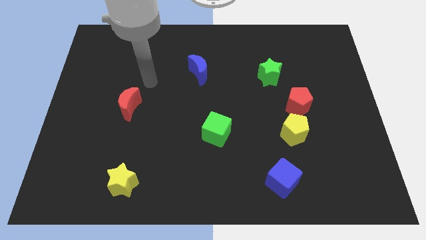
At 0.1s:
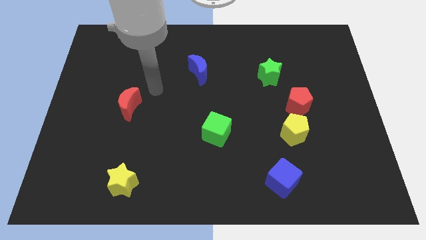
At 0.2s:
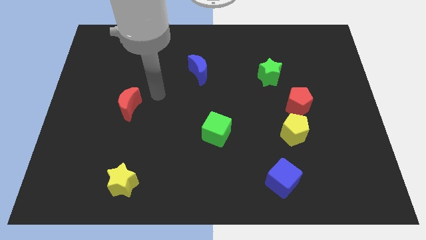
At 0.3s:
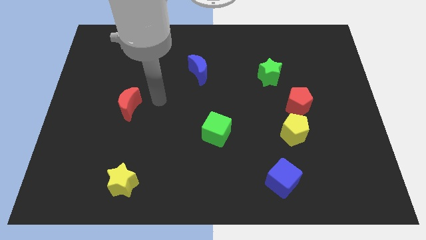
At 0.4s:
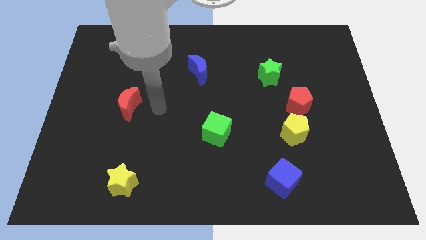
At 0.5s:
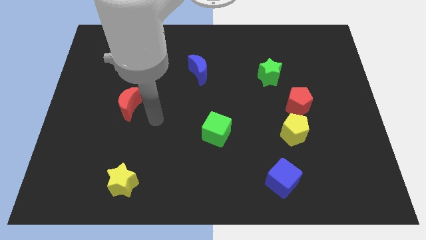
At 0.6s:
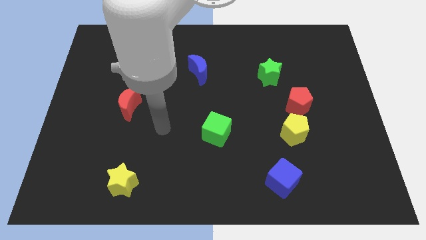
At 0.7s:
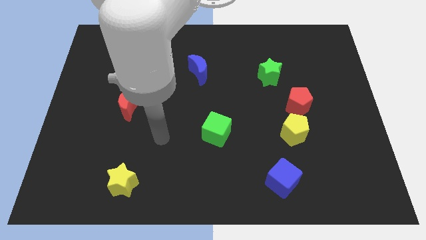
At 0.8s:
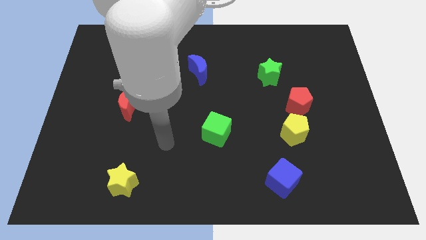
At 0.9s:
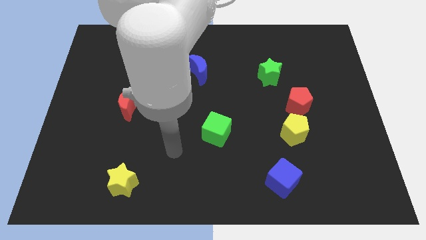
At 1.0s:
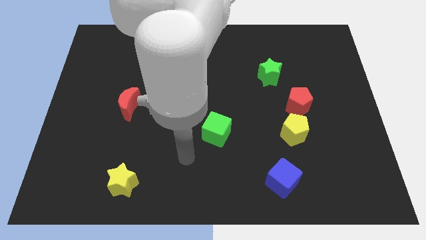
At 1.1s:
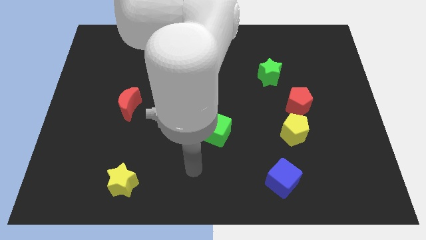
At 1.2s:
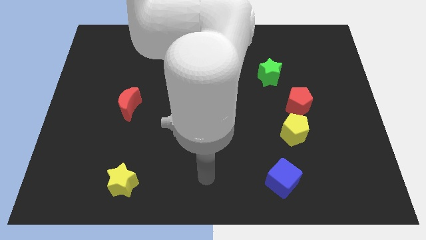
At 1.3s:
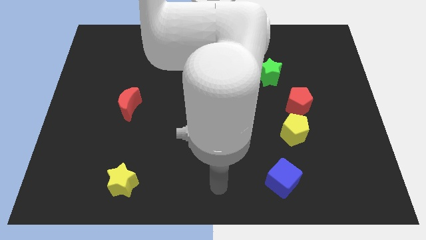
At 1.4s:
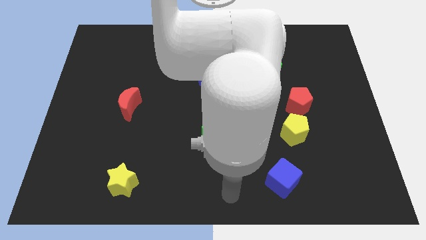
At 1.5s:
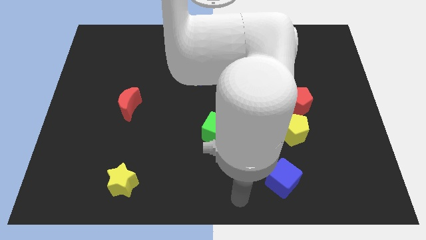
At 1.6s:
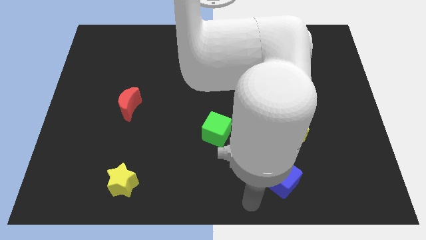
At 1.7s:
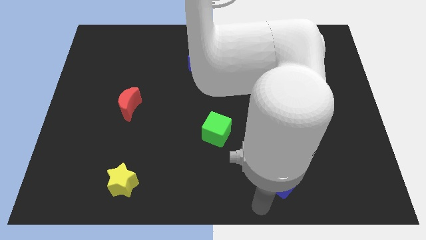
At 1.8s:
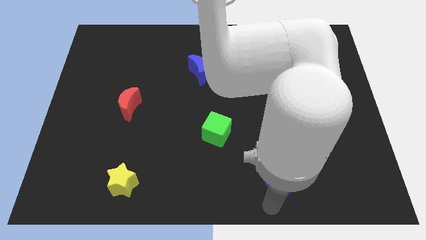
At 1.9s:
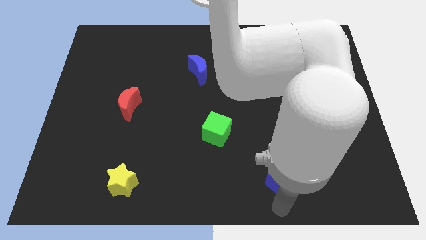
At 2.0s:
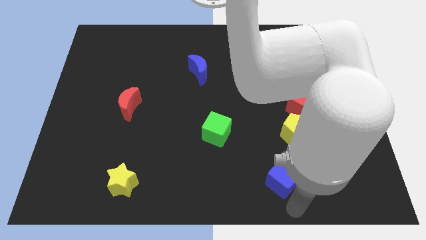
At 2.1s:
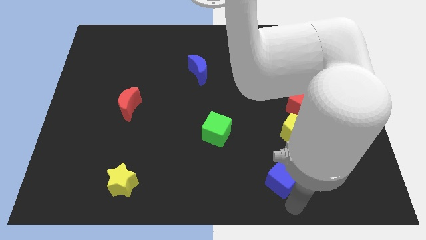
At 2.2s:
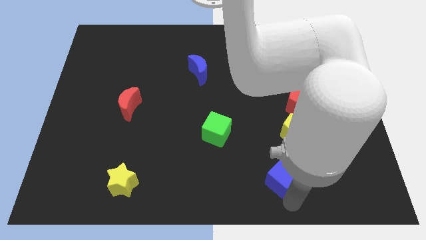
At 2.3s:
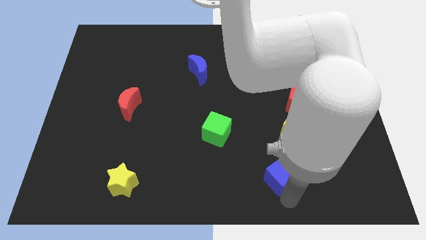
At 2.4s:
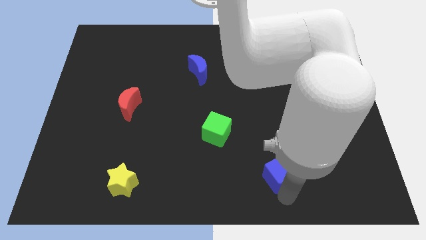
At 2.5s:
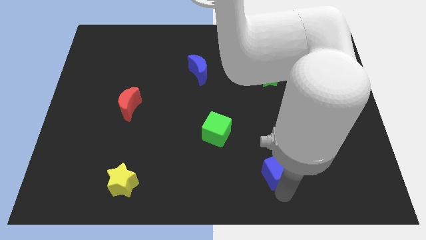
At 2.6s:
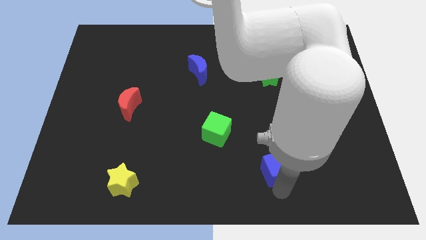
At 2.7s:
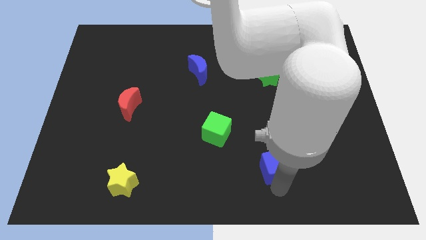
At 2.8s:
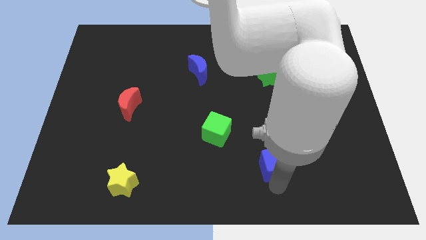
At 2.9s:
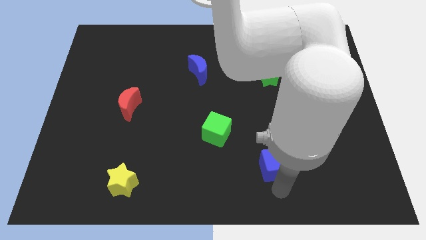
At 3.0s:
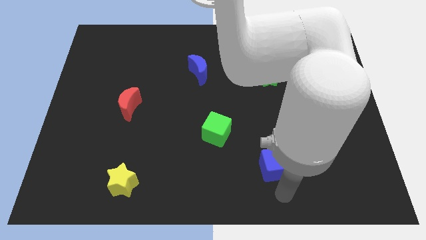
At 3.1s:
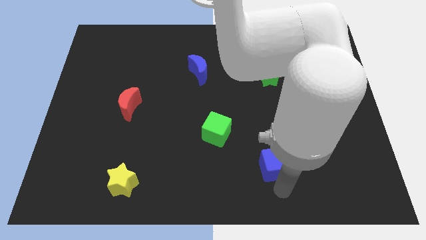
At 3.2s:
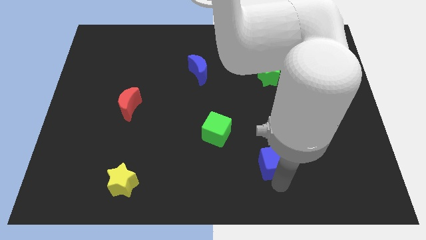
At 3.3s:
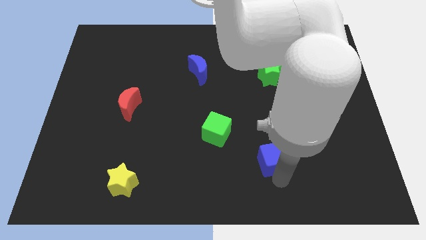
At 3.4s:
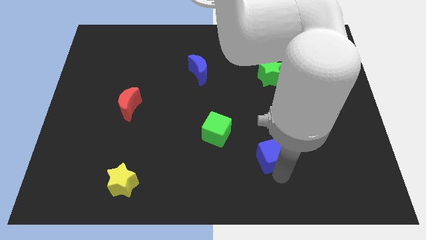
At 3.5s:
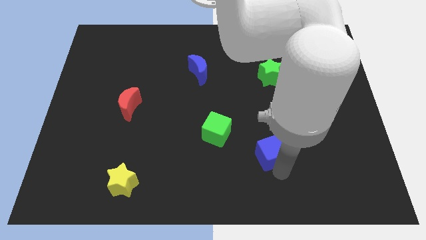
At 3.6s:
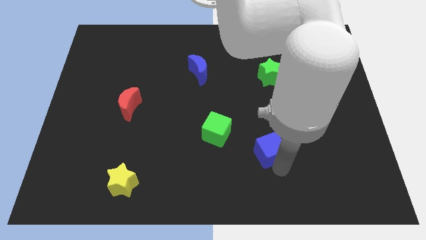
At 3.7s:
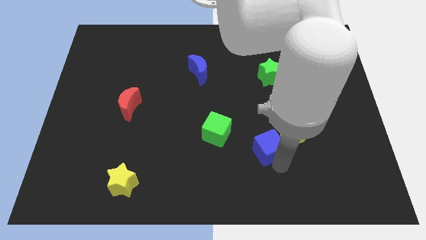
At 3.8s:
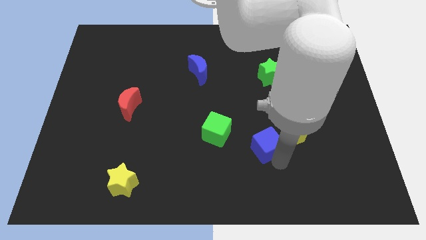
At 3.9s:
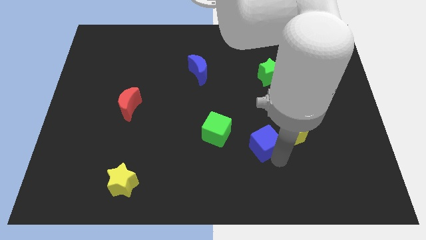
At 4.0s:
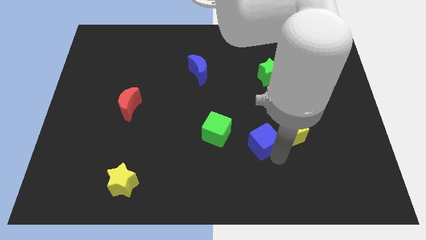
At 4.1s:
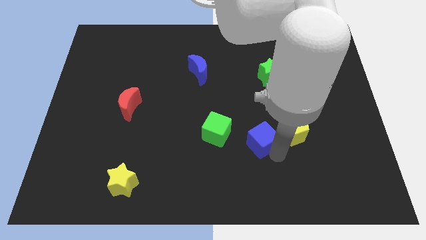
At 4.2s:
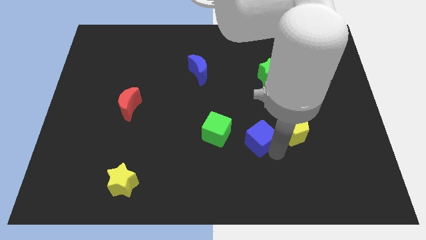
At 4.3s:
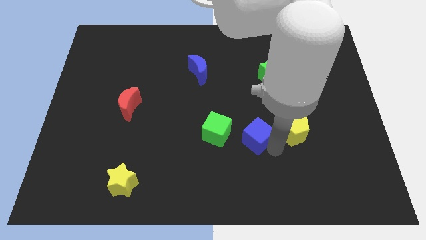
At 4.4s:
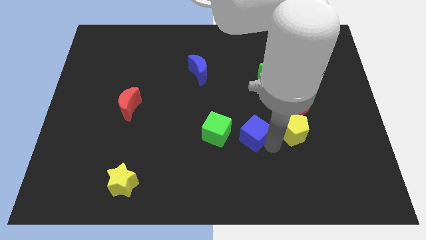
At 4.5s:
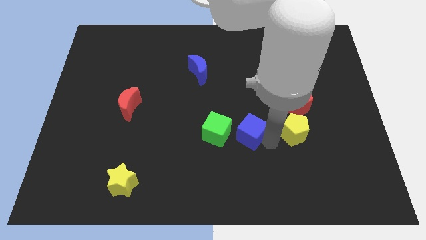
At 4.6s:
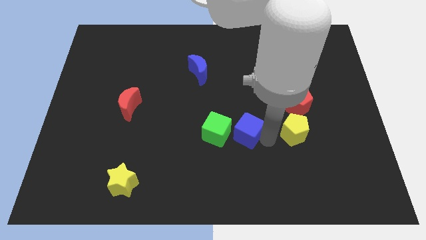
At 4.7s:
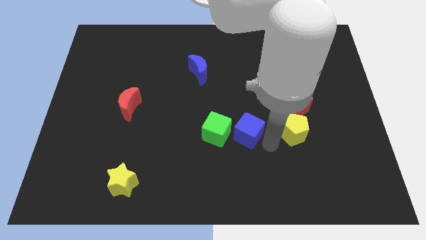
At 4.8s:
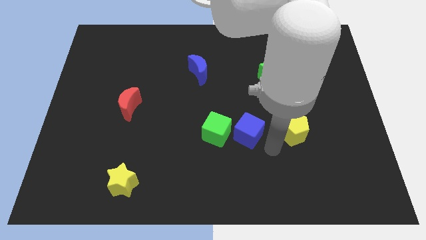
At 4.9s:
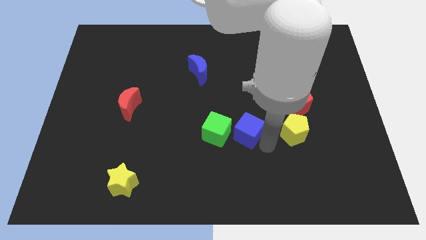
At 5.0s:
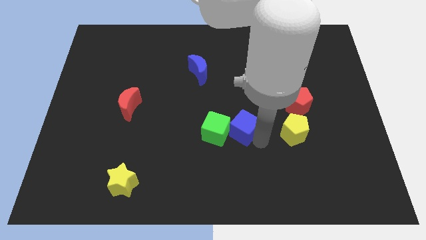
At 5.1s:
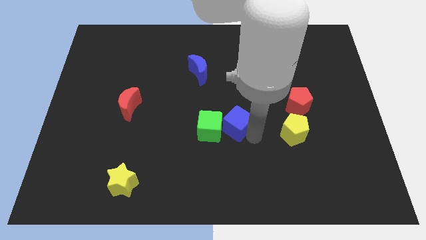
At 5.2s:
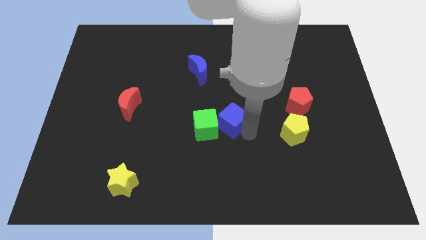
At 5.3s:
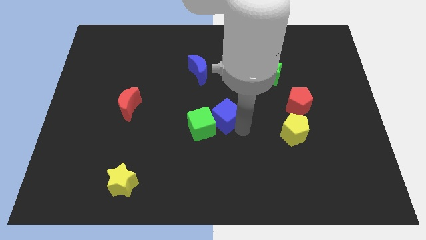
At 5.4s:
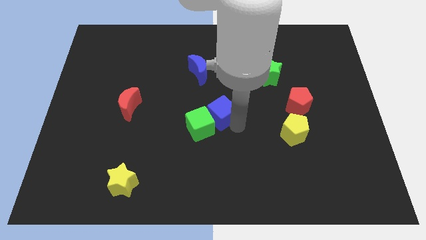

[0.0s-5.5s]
slide the blue cube diagonally upwards and left

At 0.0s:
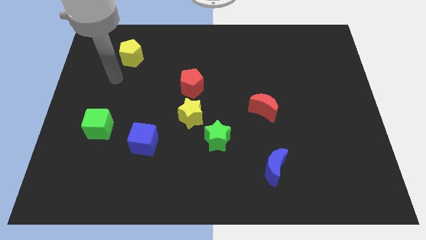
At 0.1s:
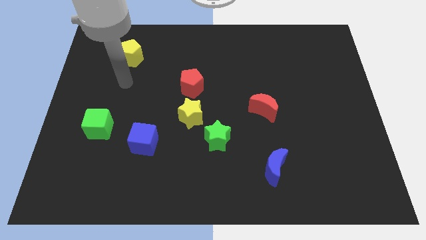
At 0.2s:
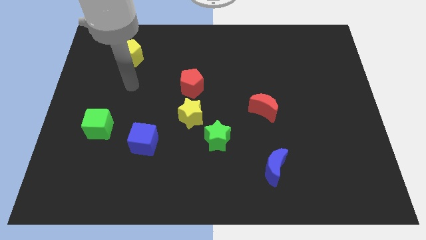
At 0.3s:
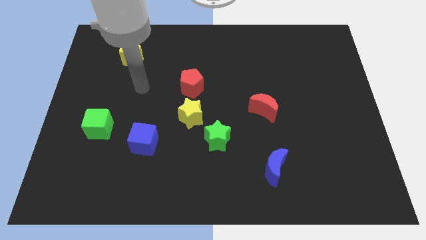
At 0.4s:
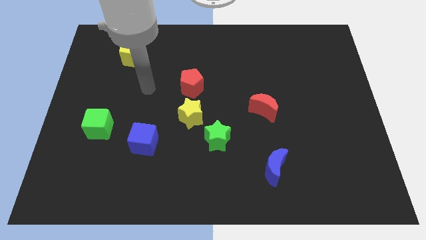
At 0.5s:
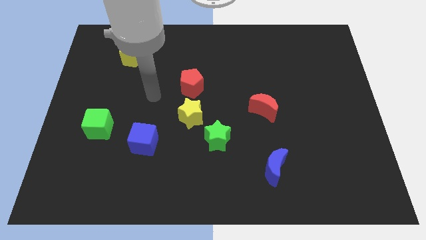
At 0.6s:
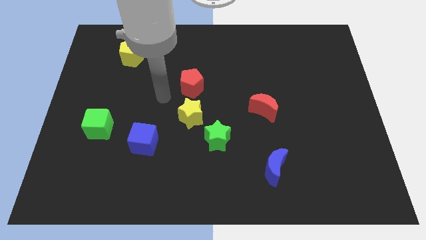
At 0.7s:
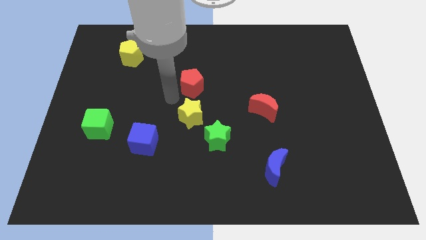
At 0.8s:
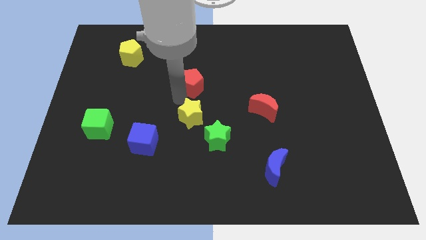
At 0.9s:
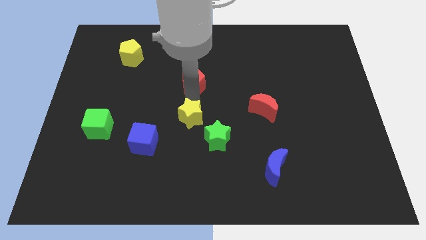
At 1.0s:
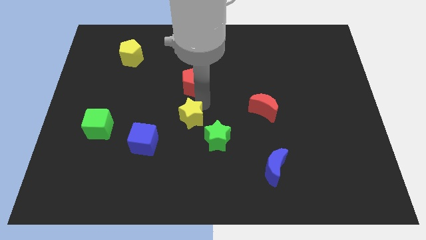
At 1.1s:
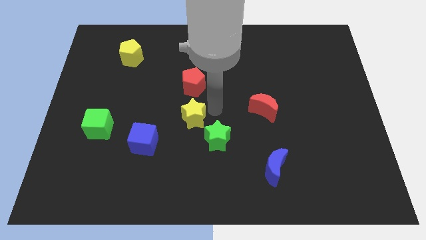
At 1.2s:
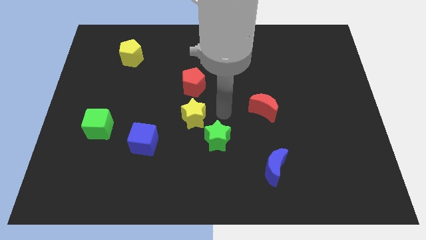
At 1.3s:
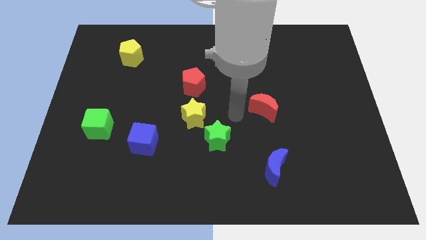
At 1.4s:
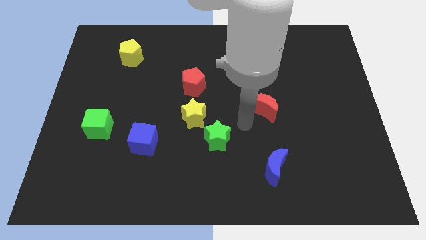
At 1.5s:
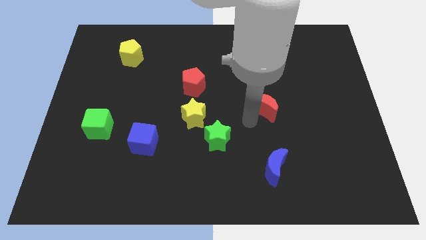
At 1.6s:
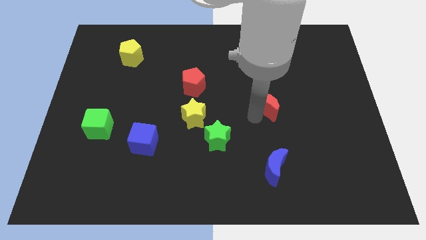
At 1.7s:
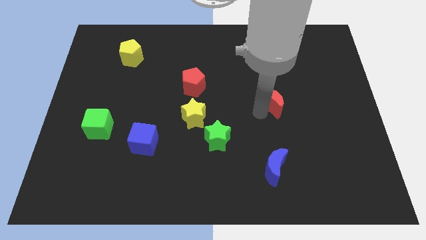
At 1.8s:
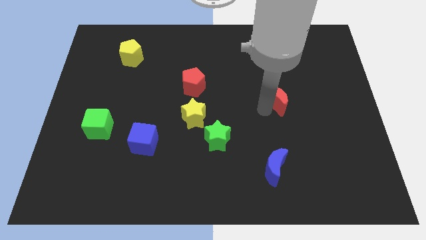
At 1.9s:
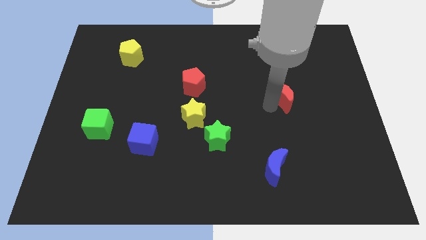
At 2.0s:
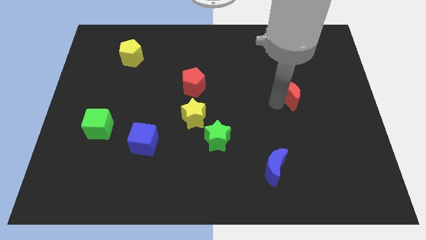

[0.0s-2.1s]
move the red moon upwards and then right somewhat

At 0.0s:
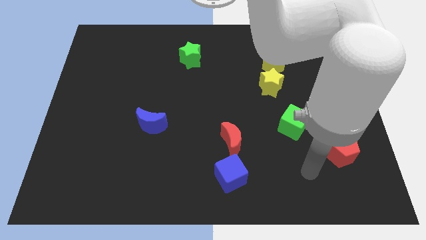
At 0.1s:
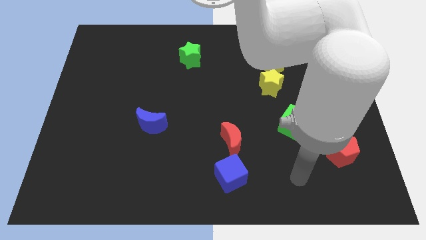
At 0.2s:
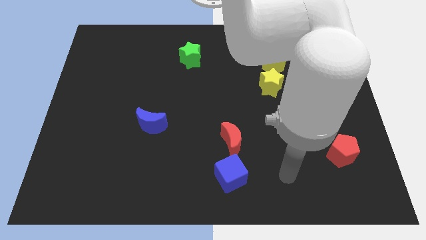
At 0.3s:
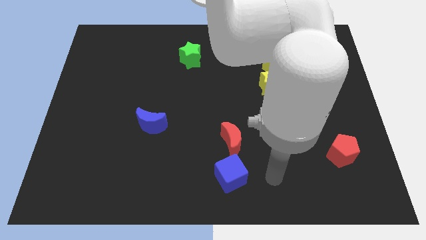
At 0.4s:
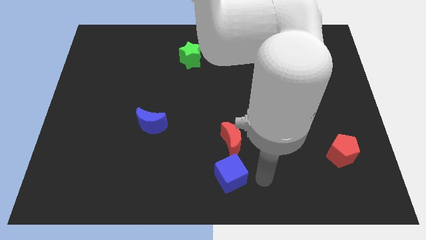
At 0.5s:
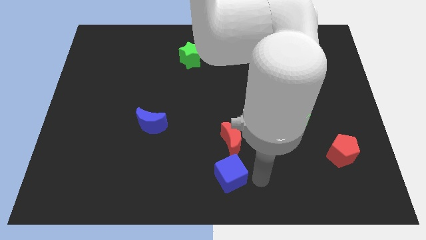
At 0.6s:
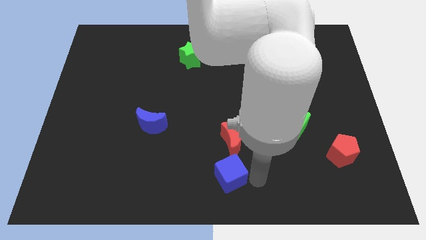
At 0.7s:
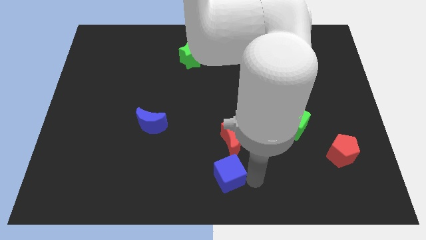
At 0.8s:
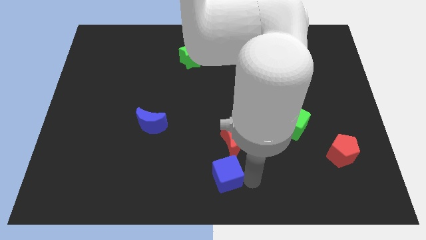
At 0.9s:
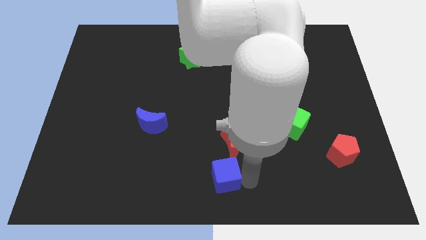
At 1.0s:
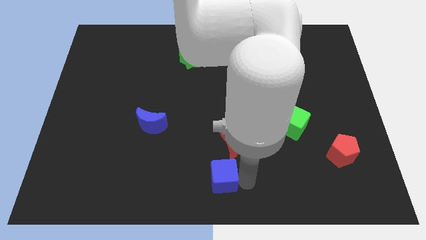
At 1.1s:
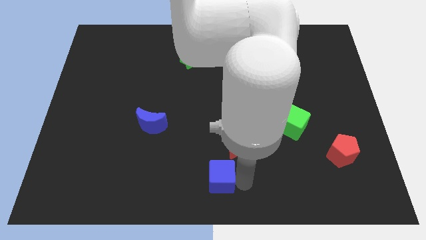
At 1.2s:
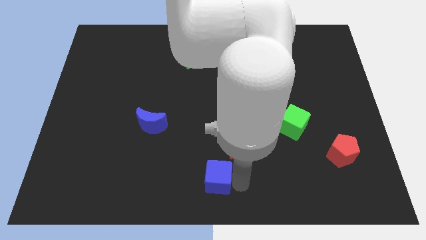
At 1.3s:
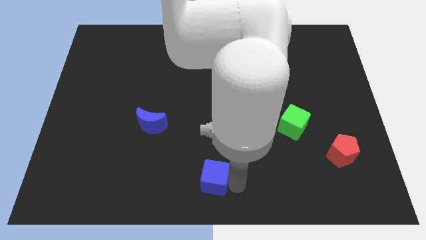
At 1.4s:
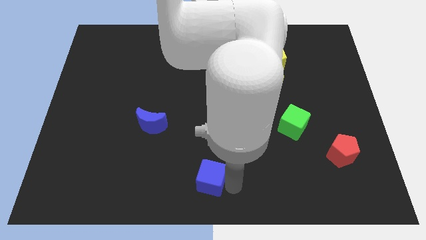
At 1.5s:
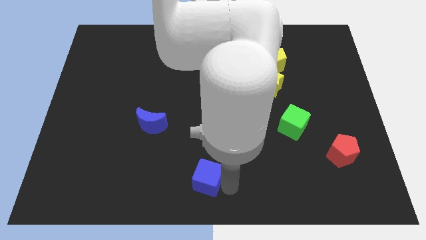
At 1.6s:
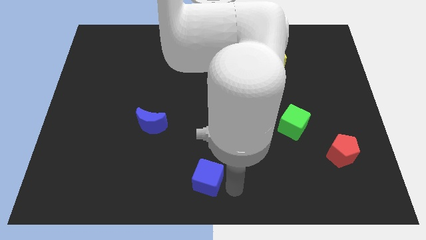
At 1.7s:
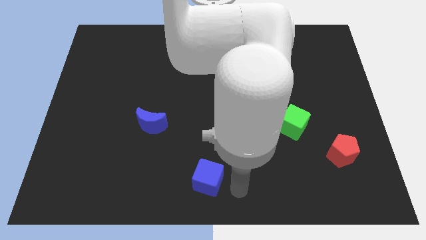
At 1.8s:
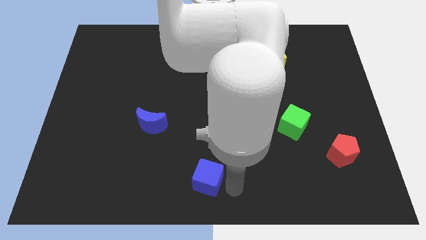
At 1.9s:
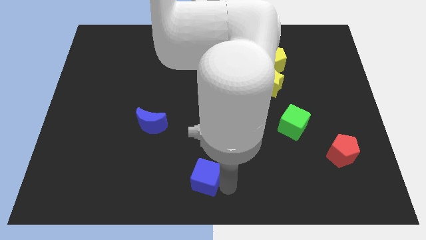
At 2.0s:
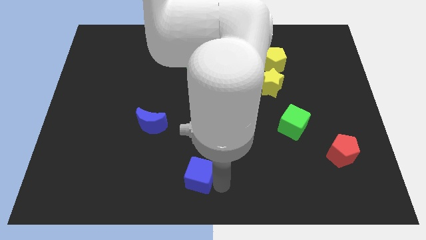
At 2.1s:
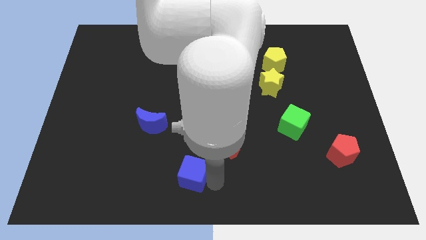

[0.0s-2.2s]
slightly move the blue cube left
